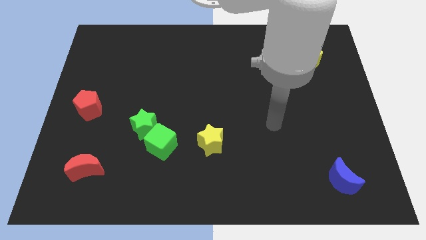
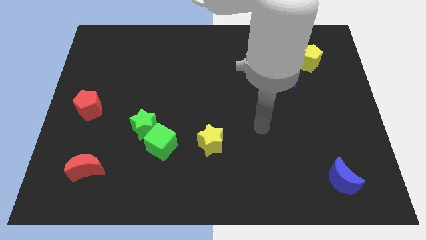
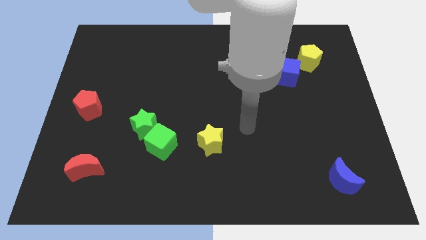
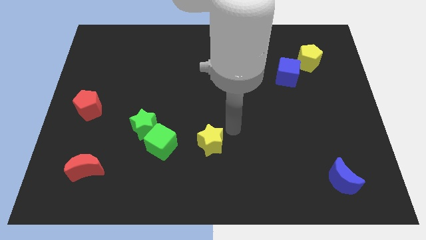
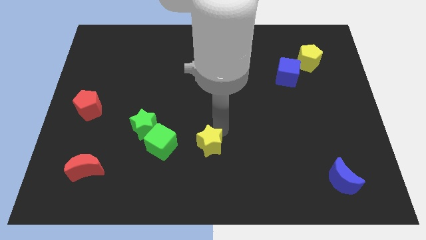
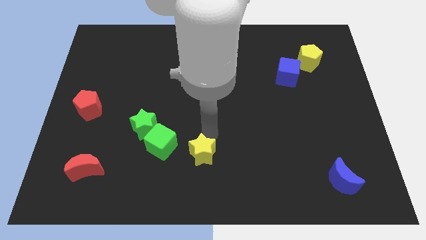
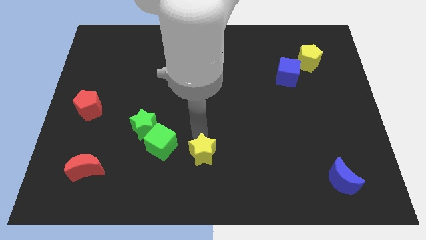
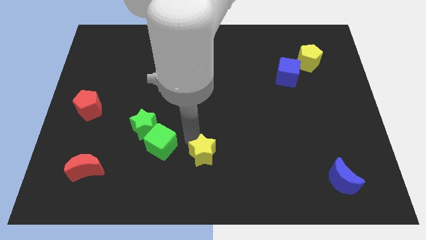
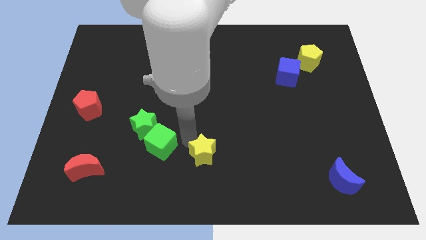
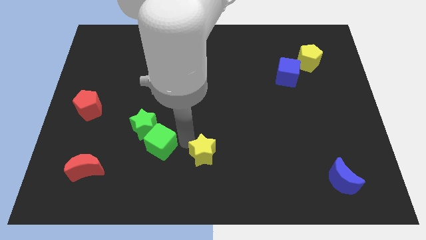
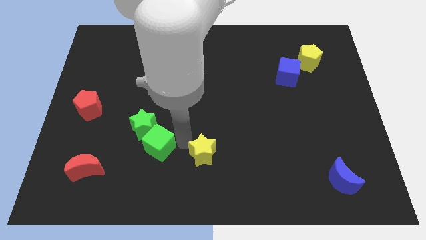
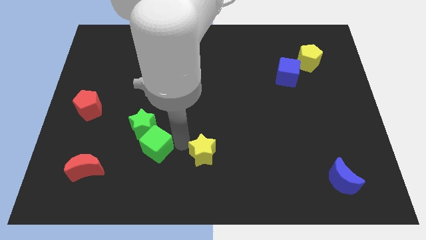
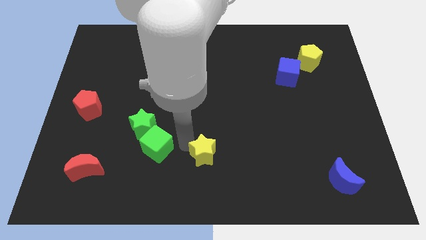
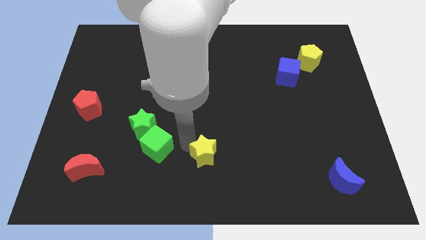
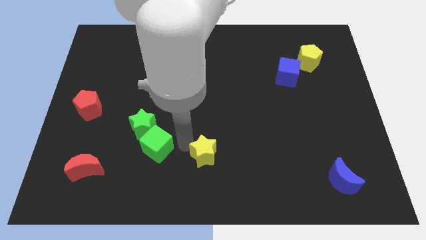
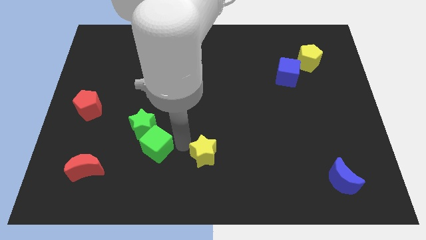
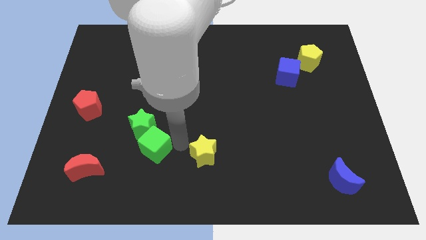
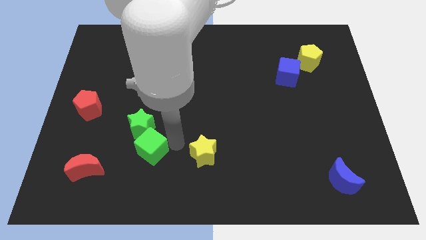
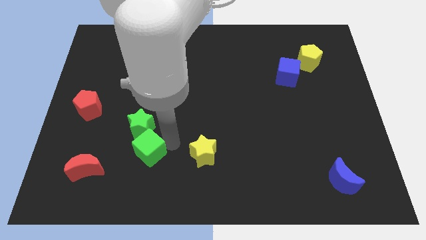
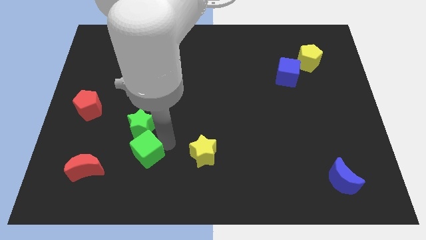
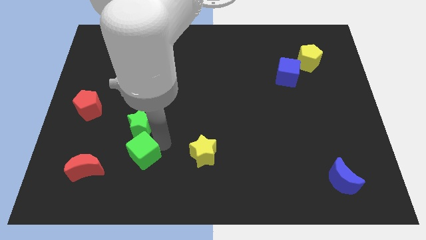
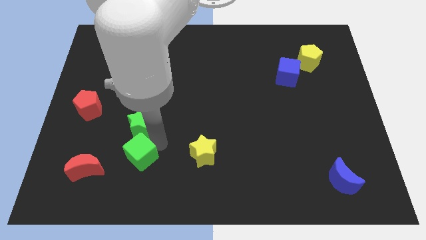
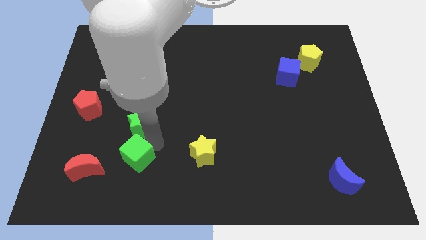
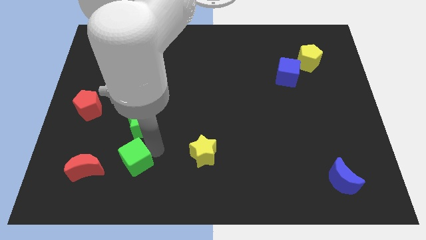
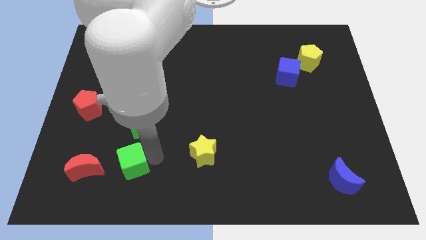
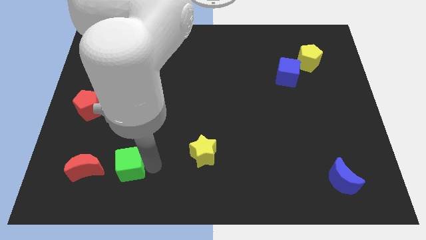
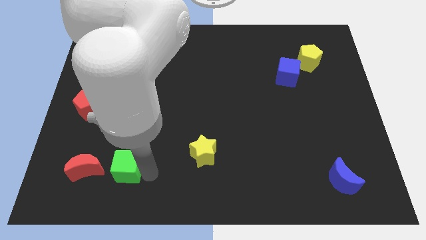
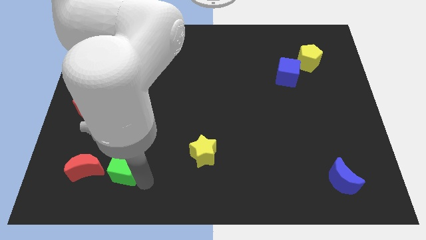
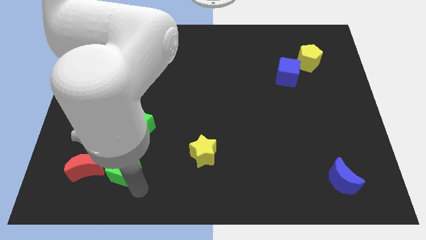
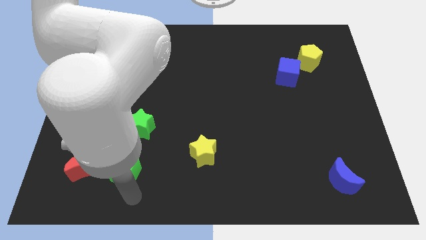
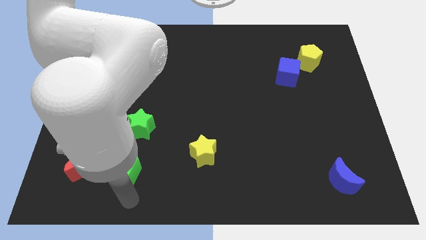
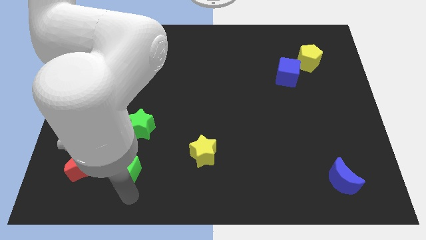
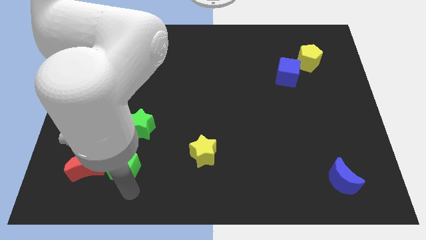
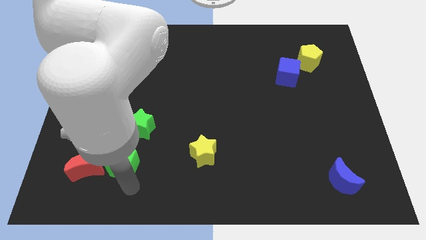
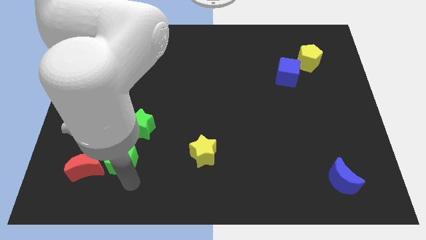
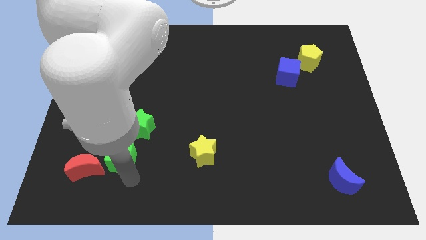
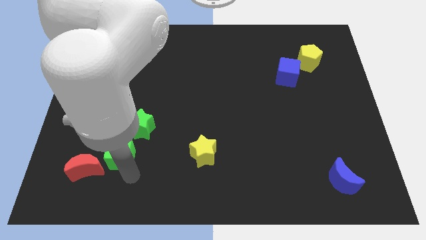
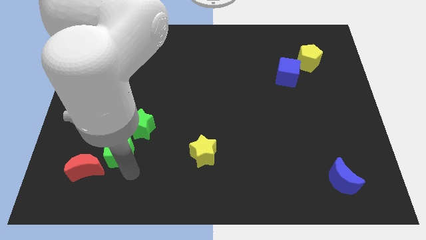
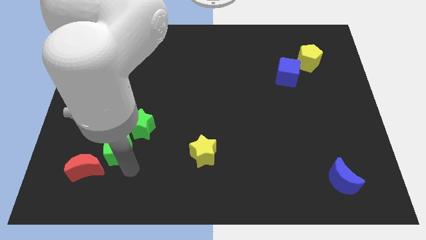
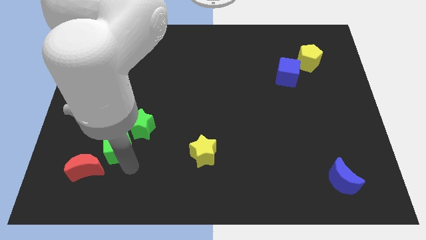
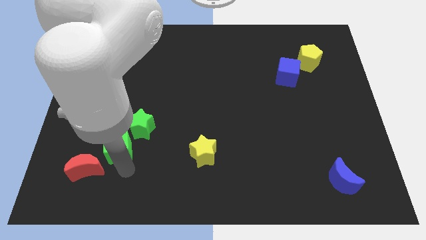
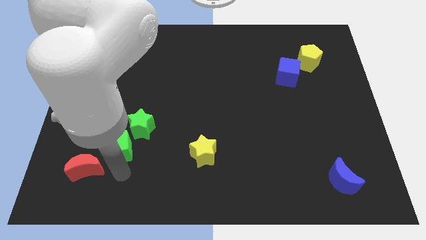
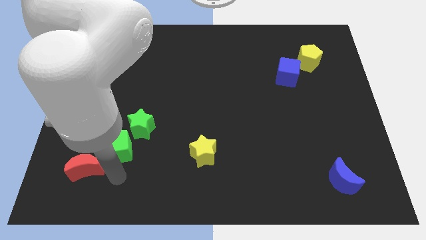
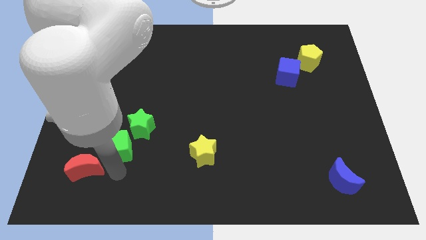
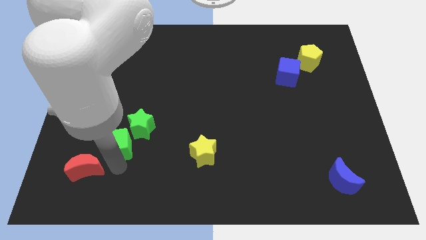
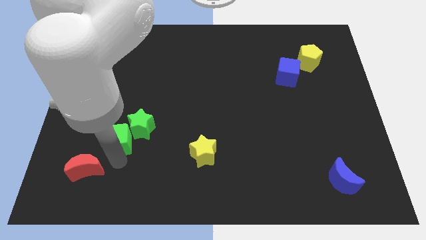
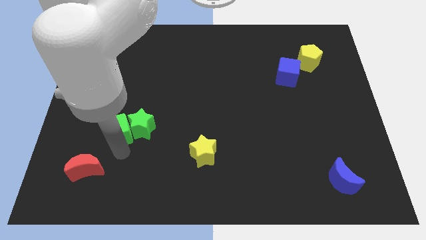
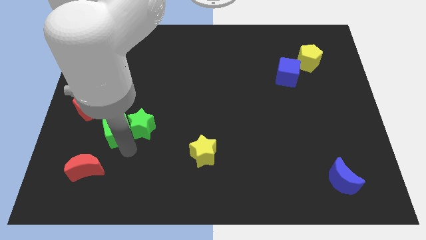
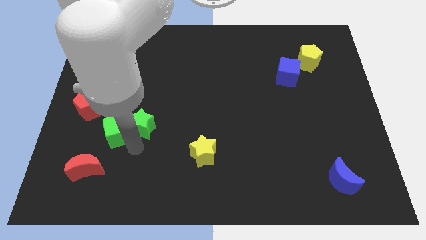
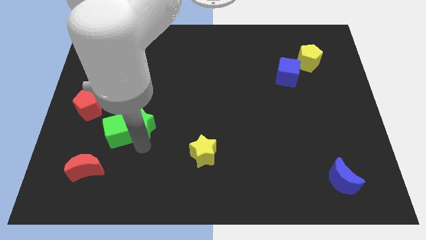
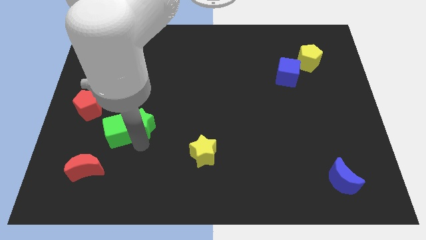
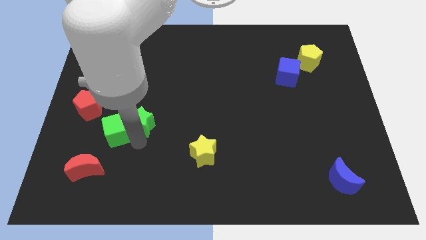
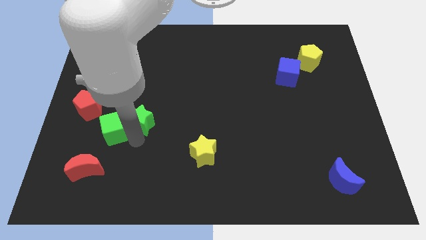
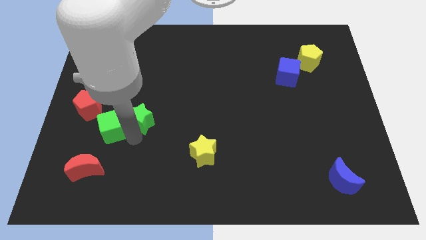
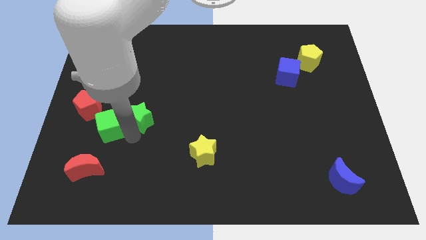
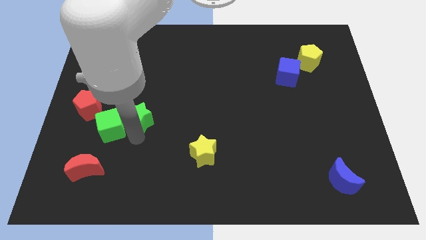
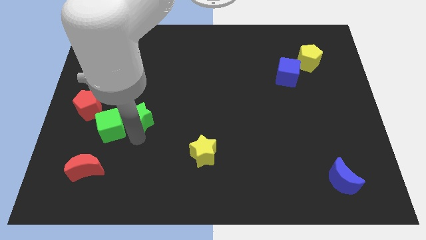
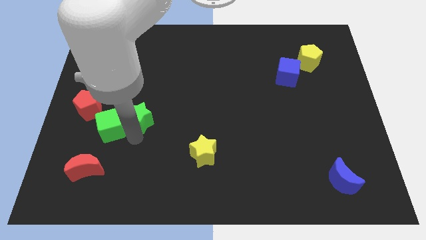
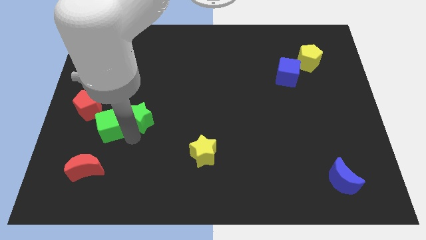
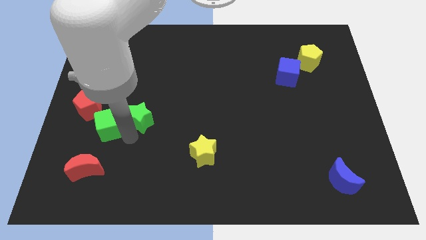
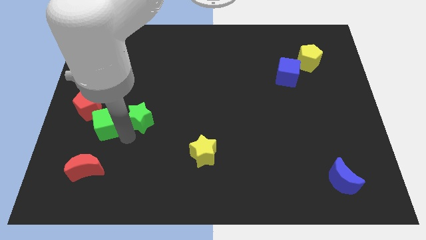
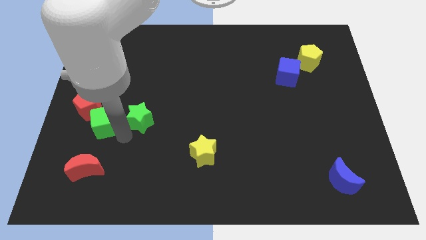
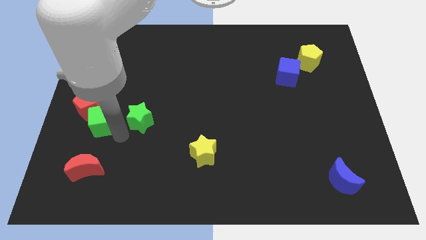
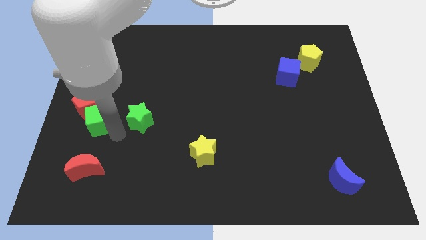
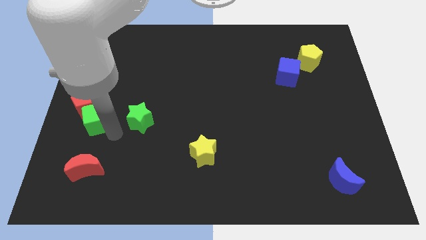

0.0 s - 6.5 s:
slide the green cube to the center left
